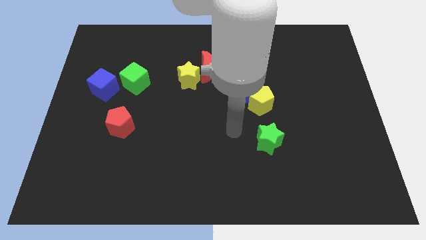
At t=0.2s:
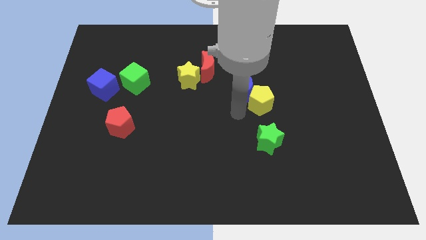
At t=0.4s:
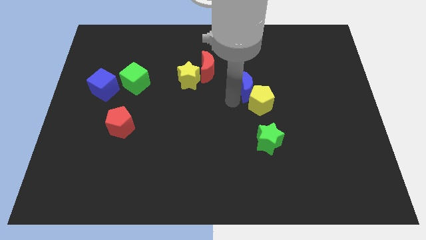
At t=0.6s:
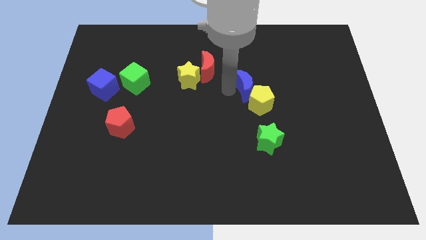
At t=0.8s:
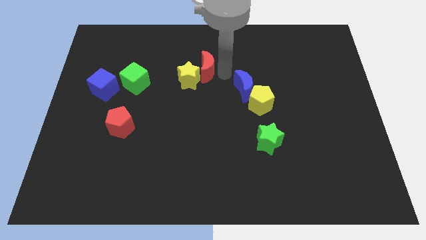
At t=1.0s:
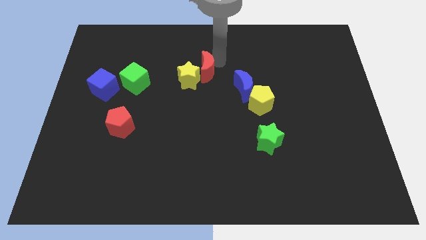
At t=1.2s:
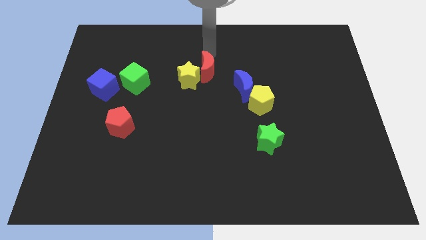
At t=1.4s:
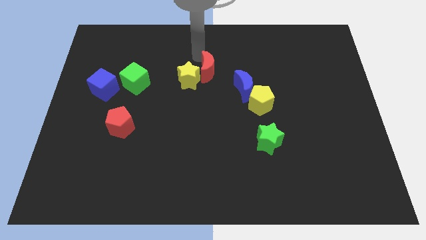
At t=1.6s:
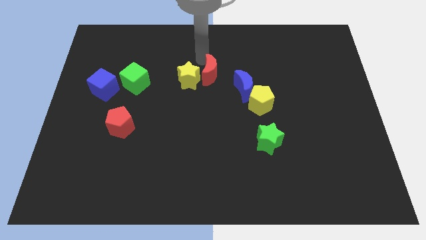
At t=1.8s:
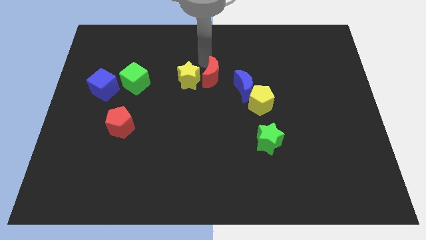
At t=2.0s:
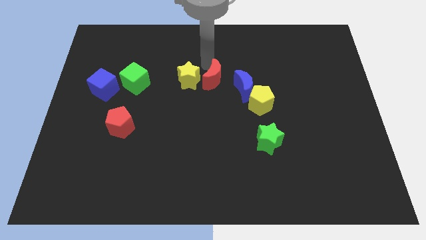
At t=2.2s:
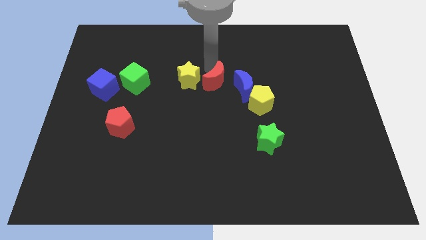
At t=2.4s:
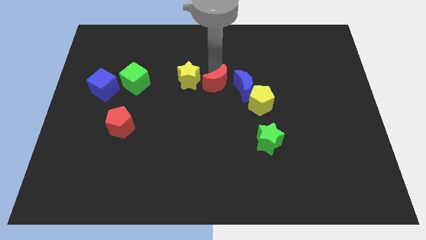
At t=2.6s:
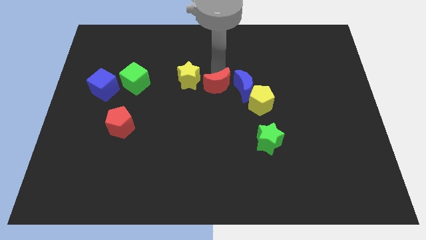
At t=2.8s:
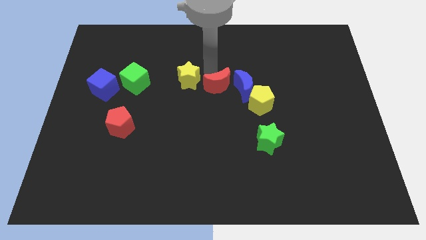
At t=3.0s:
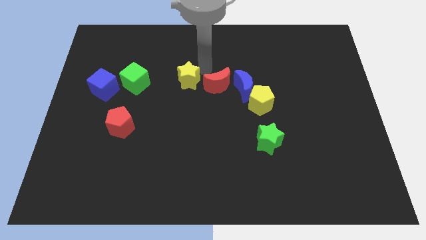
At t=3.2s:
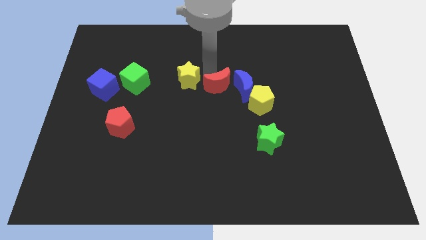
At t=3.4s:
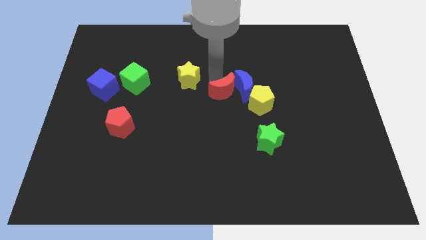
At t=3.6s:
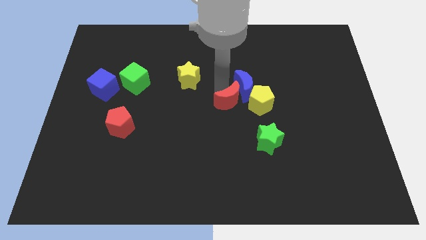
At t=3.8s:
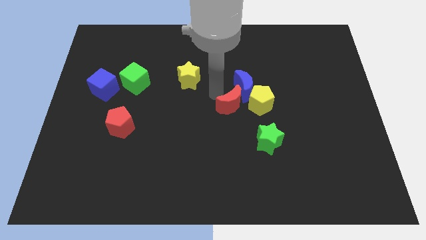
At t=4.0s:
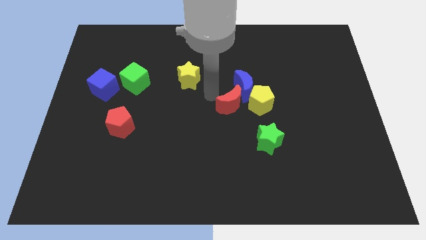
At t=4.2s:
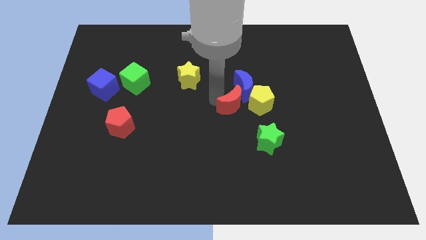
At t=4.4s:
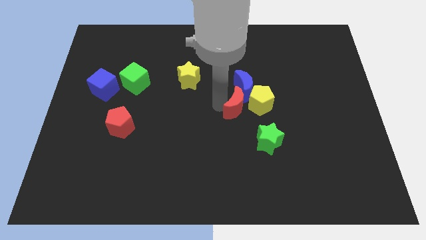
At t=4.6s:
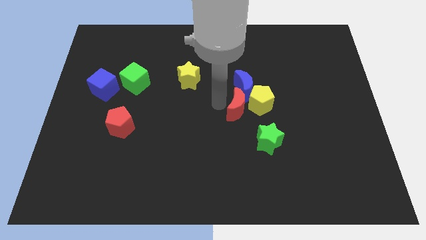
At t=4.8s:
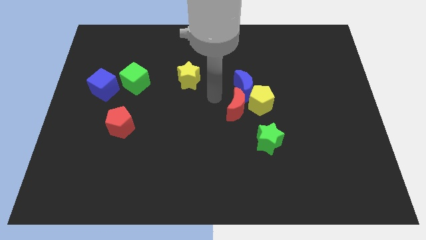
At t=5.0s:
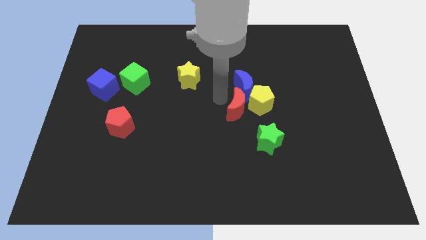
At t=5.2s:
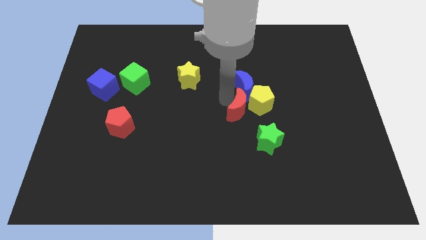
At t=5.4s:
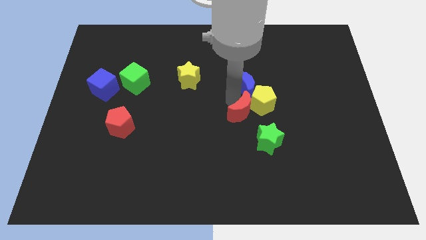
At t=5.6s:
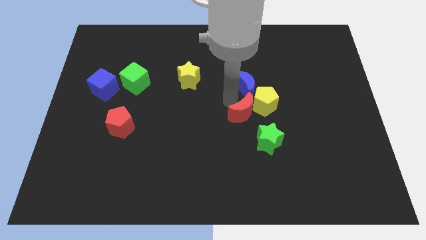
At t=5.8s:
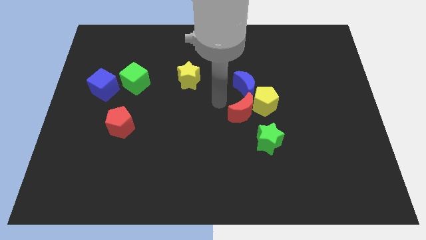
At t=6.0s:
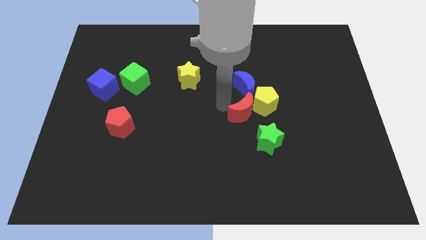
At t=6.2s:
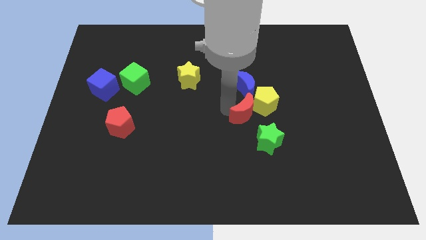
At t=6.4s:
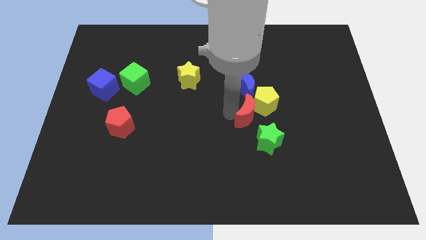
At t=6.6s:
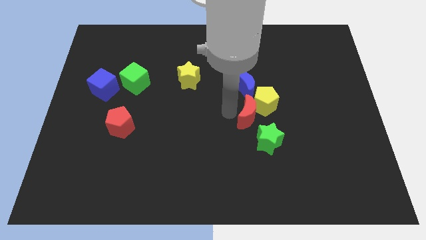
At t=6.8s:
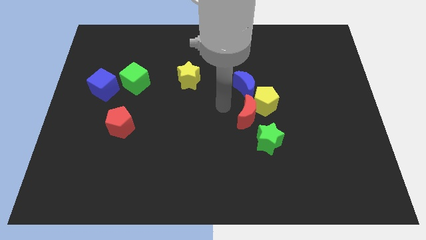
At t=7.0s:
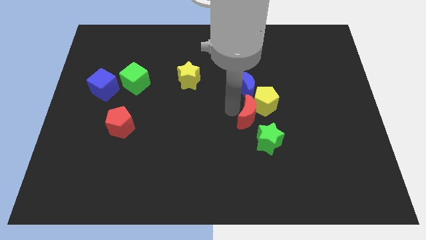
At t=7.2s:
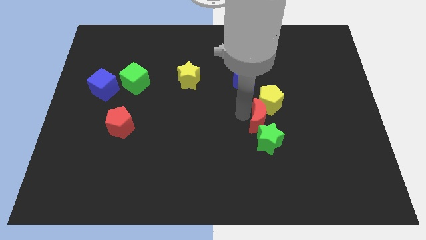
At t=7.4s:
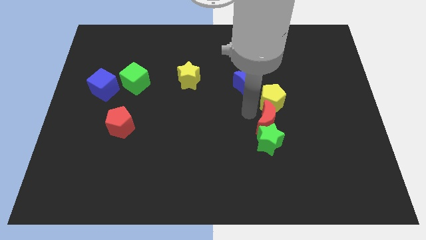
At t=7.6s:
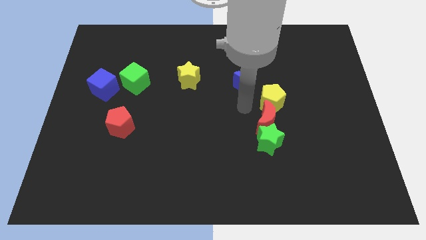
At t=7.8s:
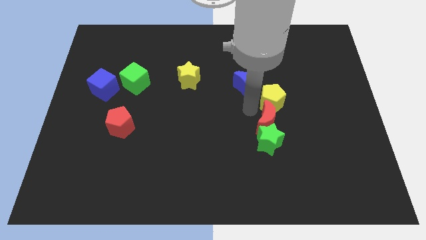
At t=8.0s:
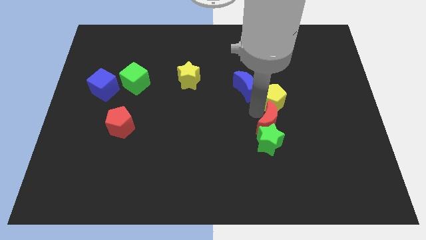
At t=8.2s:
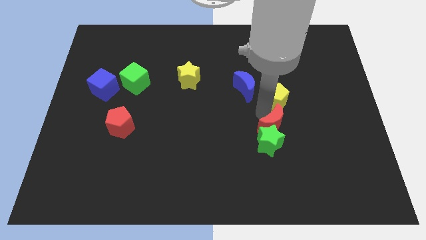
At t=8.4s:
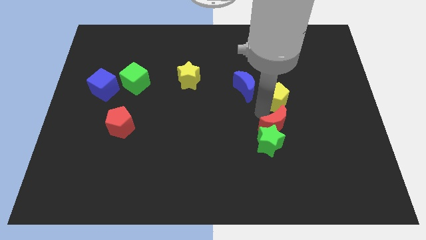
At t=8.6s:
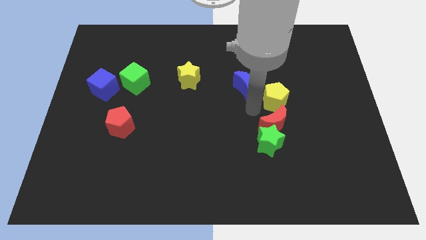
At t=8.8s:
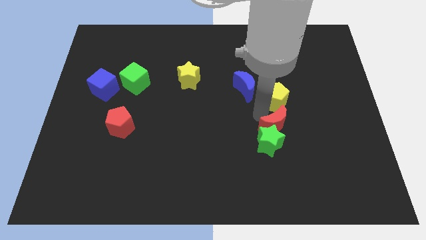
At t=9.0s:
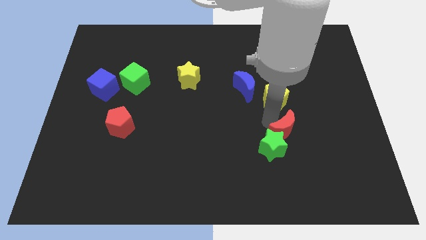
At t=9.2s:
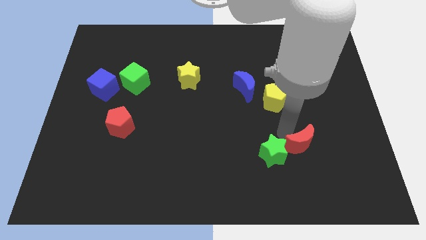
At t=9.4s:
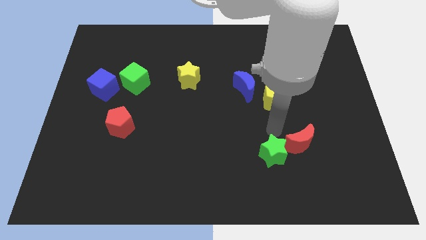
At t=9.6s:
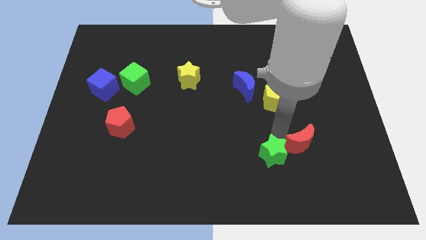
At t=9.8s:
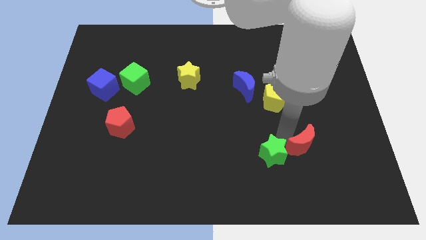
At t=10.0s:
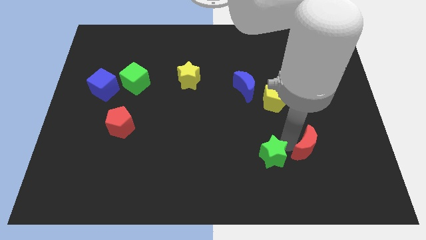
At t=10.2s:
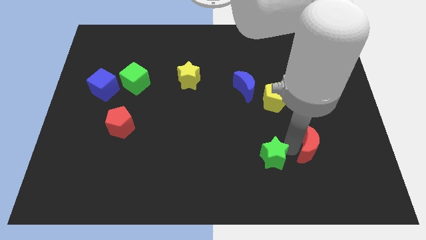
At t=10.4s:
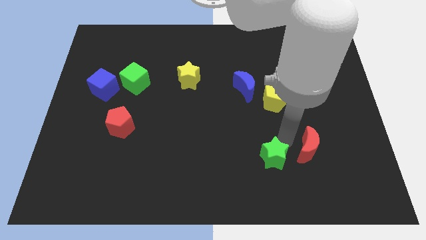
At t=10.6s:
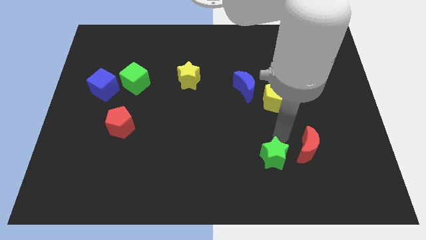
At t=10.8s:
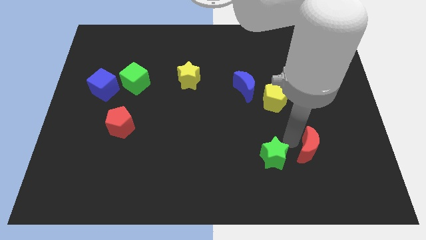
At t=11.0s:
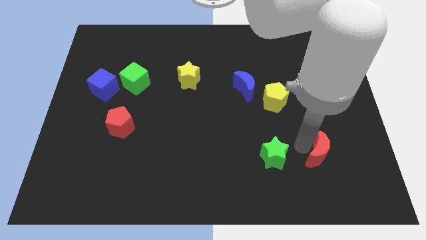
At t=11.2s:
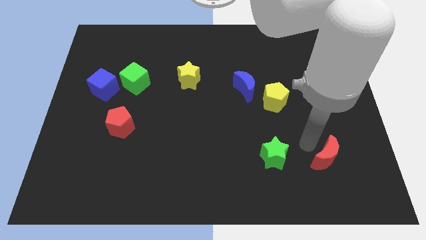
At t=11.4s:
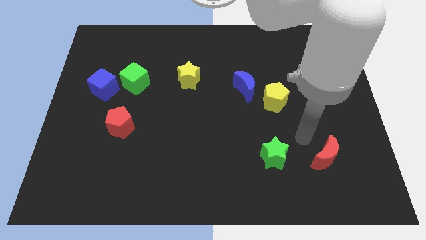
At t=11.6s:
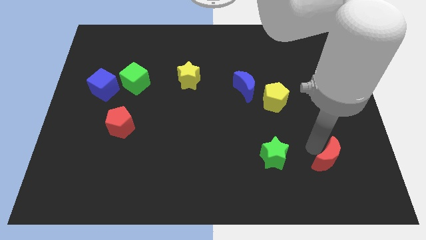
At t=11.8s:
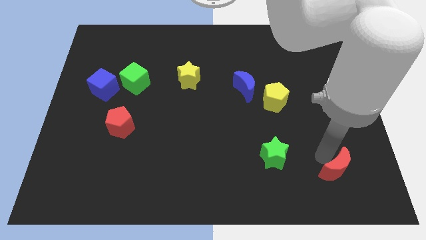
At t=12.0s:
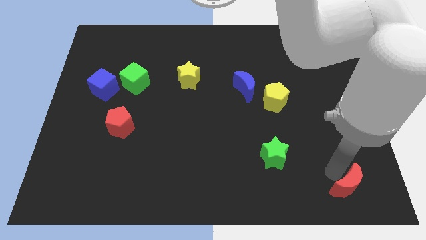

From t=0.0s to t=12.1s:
move the red moon to the bottom right corner
